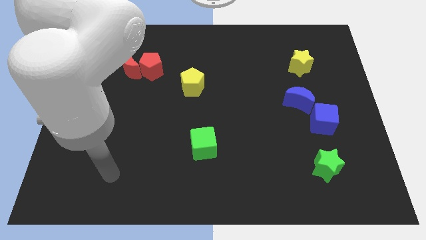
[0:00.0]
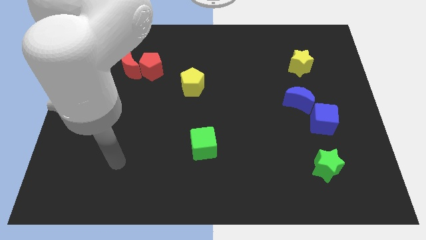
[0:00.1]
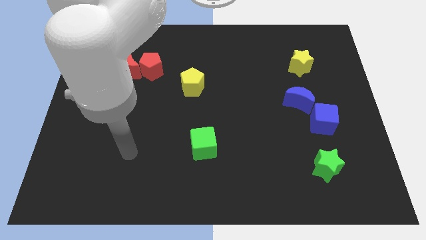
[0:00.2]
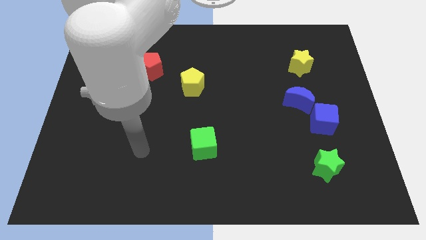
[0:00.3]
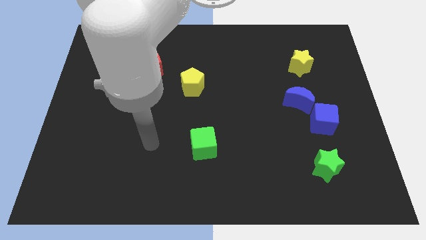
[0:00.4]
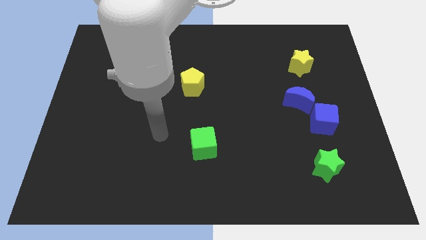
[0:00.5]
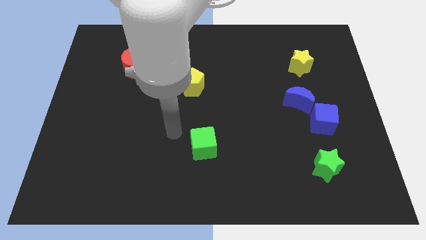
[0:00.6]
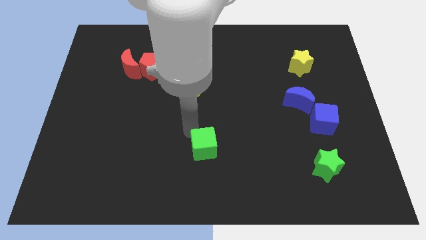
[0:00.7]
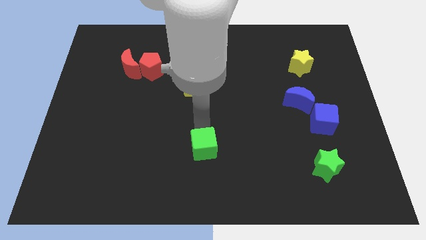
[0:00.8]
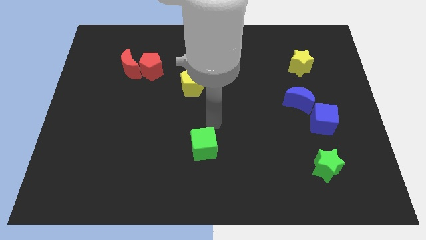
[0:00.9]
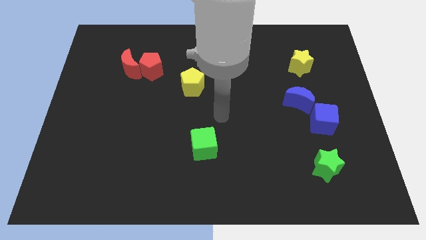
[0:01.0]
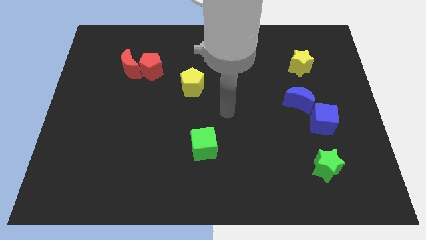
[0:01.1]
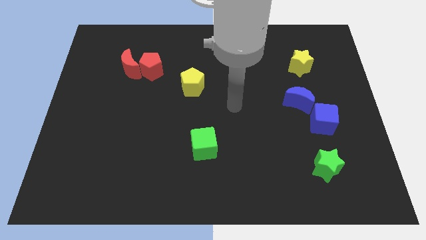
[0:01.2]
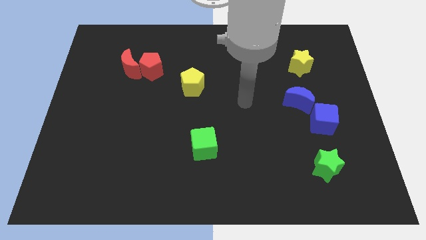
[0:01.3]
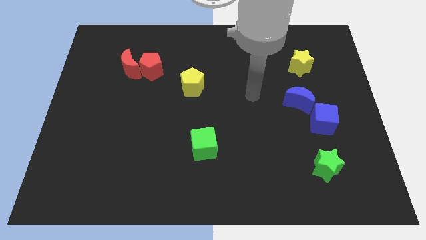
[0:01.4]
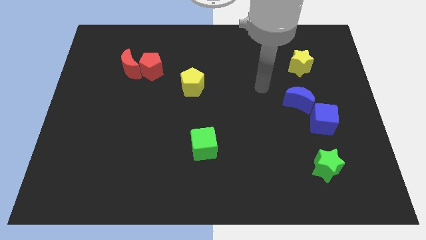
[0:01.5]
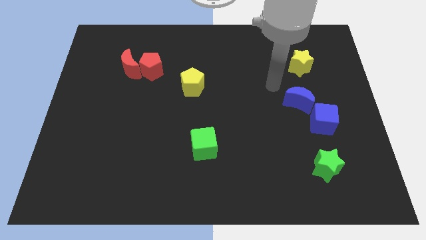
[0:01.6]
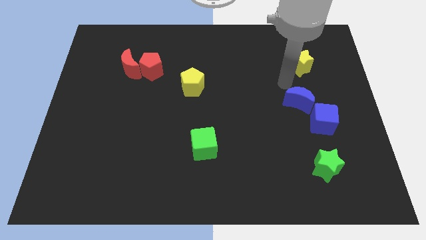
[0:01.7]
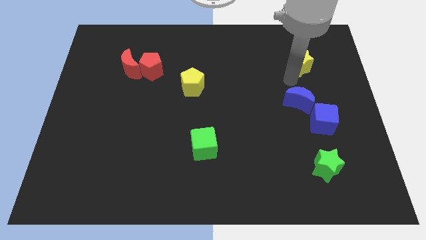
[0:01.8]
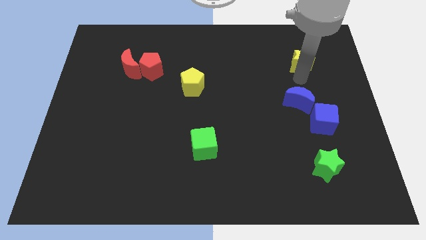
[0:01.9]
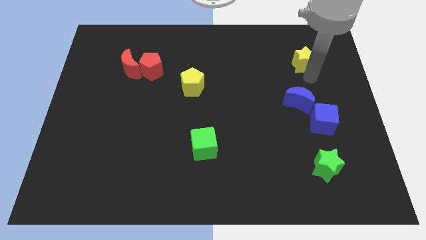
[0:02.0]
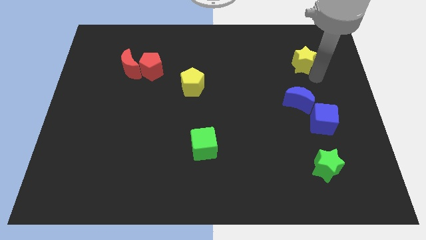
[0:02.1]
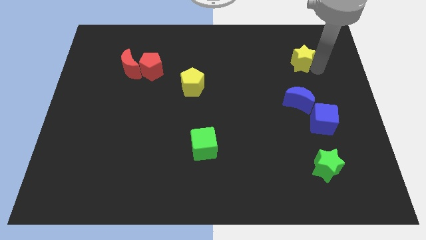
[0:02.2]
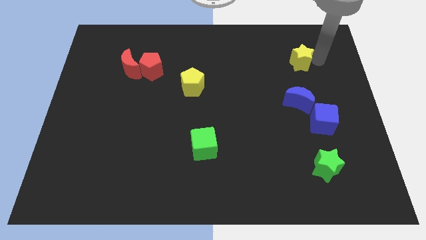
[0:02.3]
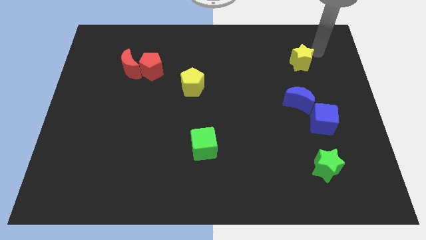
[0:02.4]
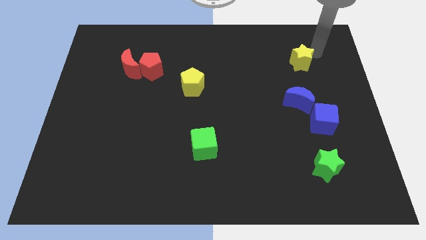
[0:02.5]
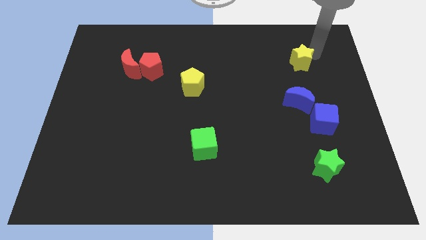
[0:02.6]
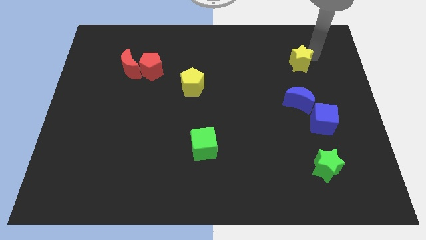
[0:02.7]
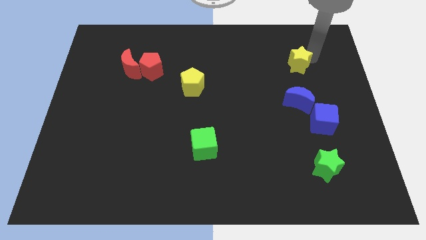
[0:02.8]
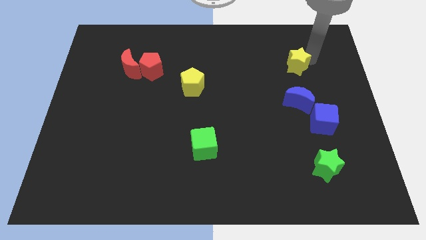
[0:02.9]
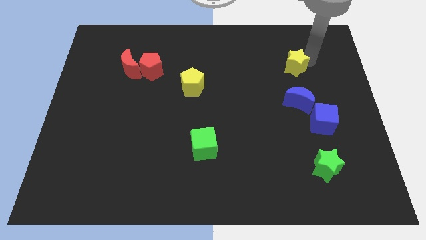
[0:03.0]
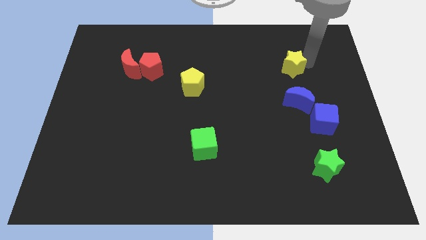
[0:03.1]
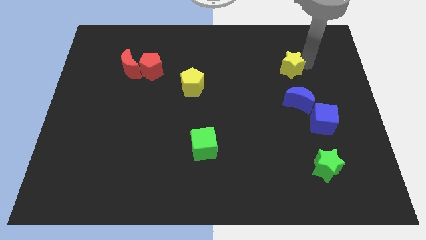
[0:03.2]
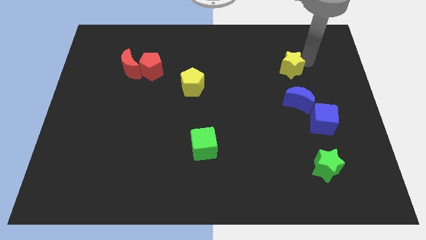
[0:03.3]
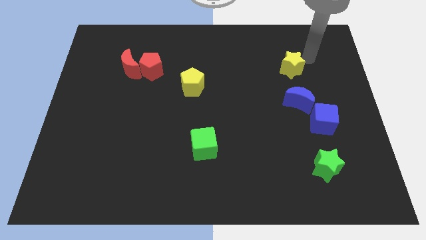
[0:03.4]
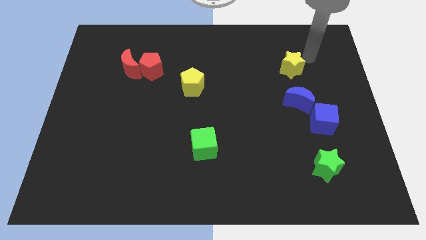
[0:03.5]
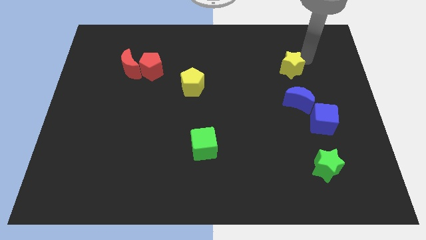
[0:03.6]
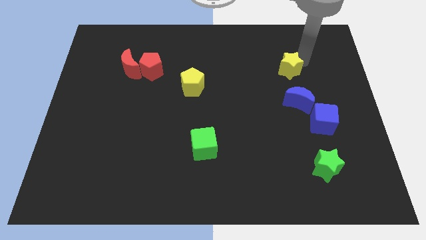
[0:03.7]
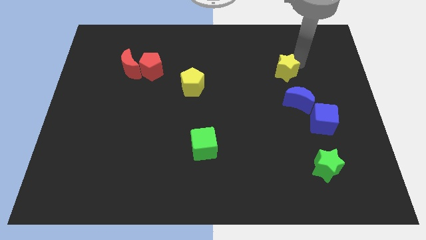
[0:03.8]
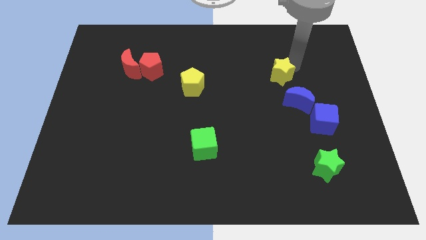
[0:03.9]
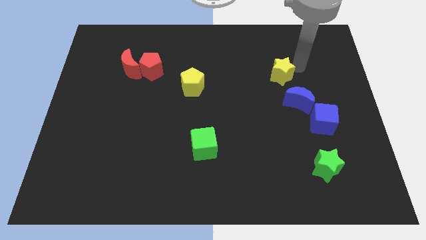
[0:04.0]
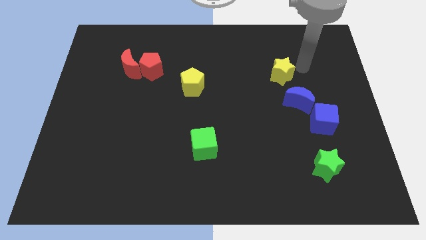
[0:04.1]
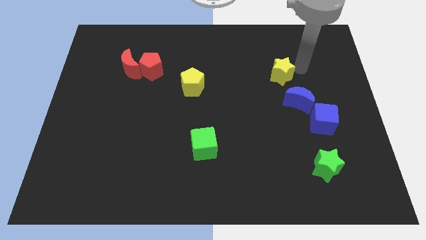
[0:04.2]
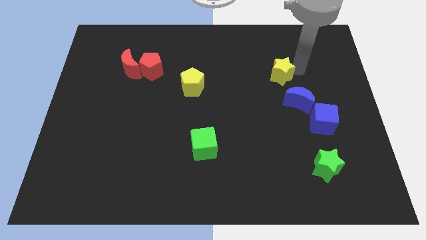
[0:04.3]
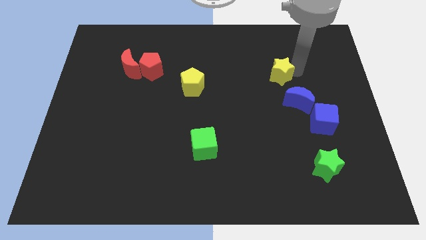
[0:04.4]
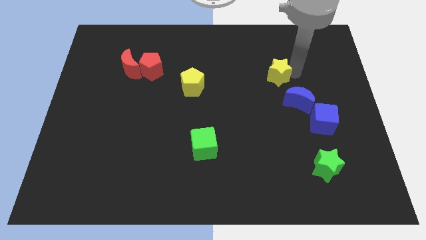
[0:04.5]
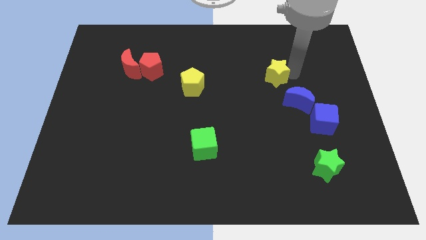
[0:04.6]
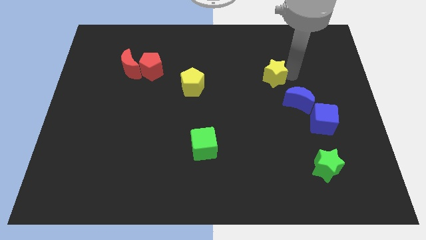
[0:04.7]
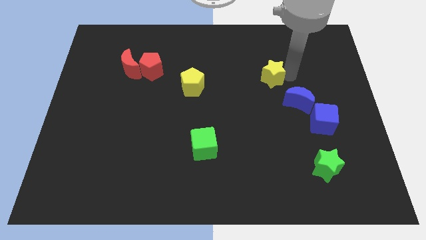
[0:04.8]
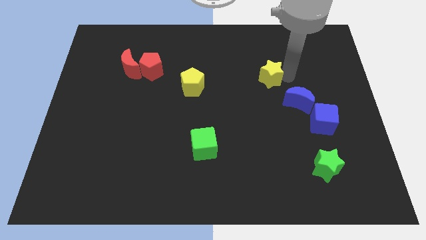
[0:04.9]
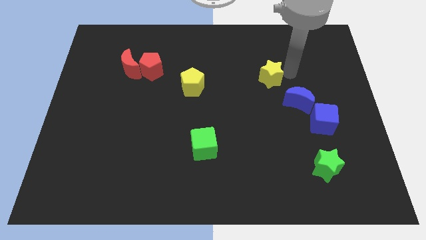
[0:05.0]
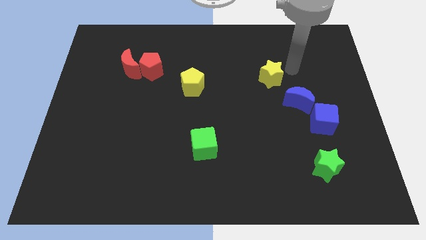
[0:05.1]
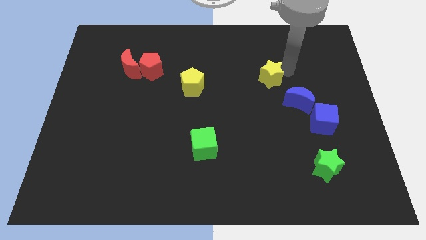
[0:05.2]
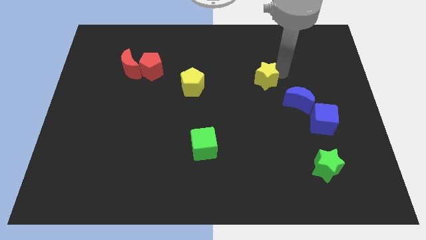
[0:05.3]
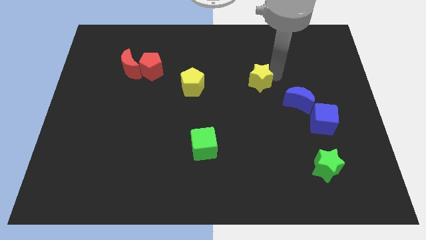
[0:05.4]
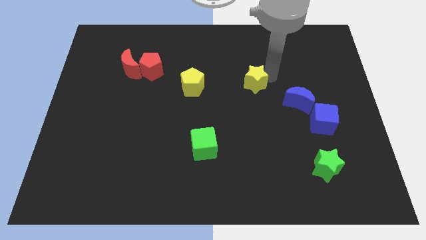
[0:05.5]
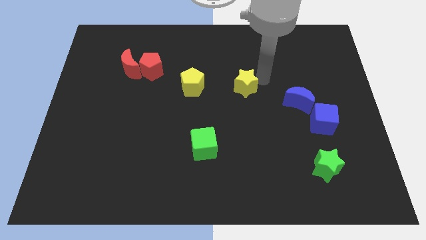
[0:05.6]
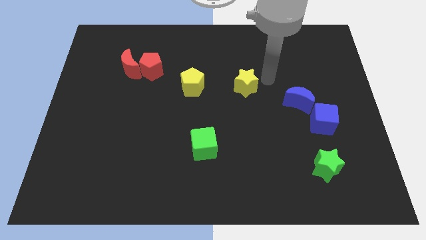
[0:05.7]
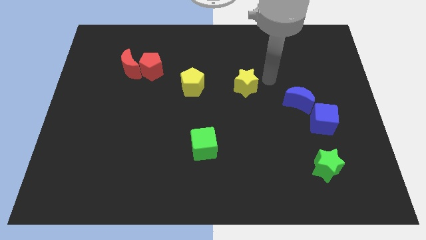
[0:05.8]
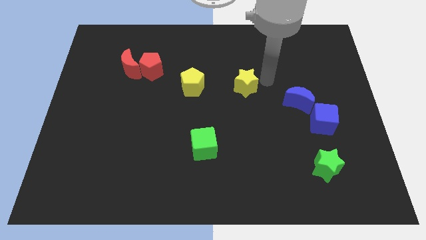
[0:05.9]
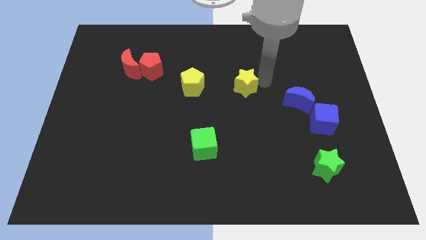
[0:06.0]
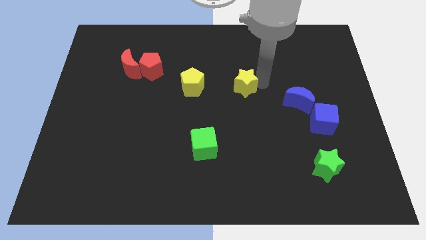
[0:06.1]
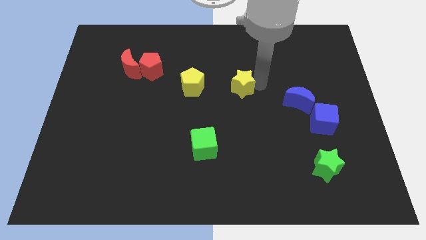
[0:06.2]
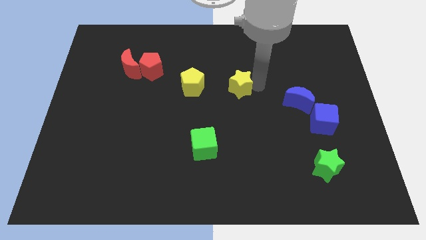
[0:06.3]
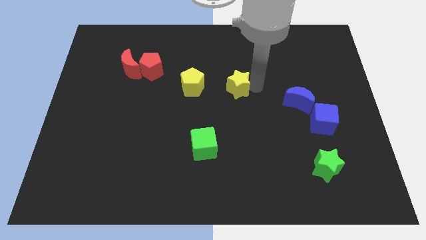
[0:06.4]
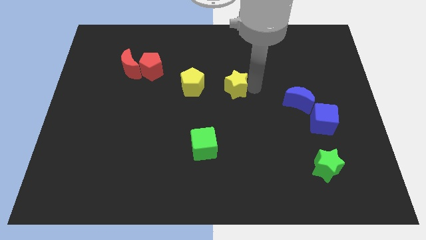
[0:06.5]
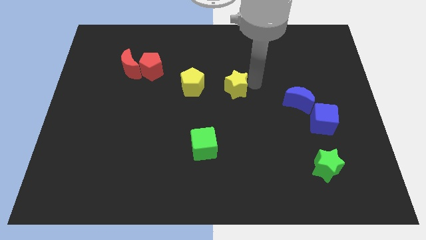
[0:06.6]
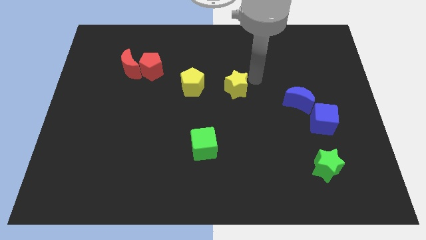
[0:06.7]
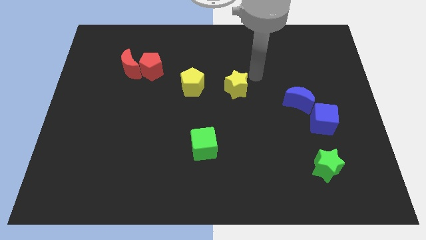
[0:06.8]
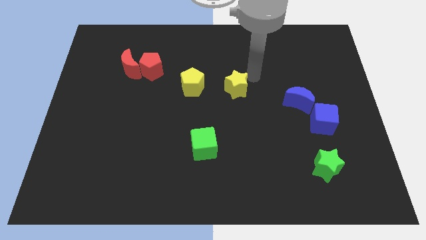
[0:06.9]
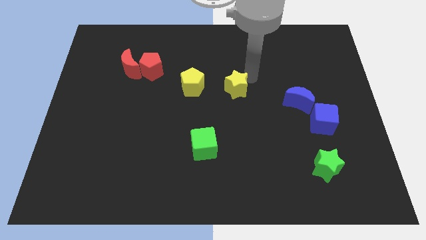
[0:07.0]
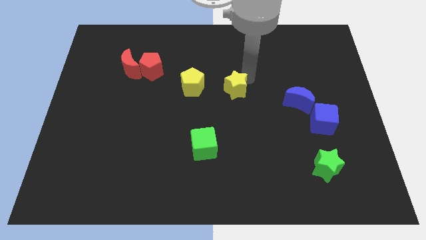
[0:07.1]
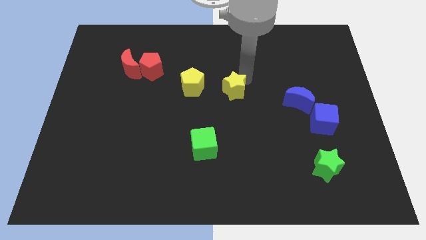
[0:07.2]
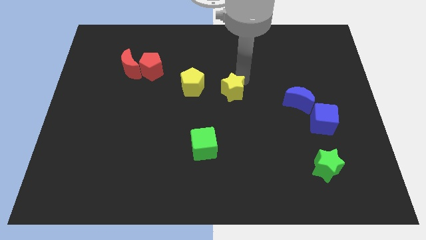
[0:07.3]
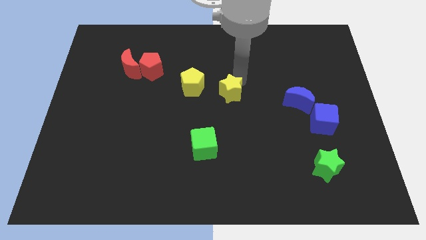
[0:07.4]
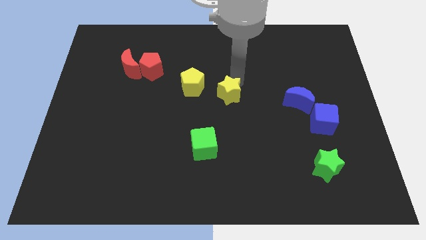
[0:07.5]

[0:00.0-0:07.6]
put the yellow star to the bottom right of the yellow pentagon
